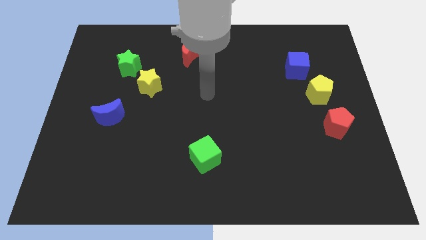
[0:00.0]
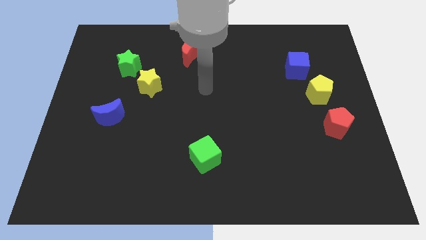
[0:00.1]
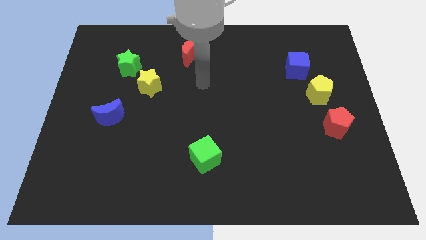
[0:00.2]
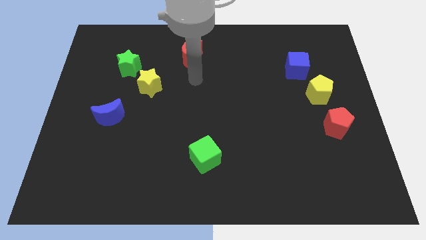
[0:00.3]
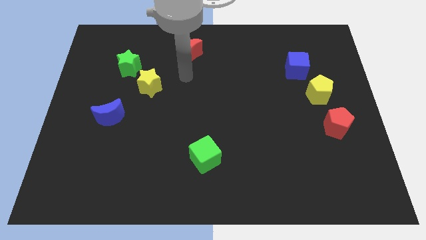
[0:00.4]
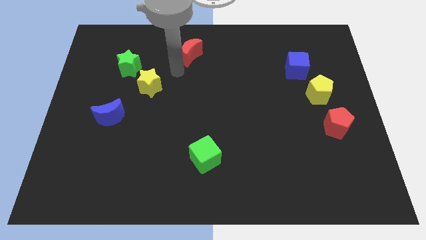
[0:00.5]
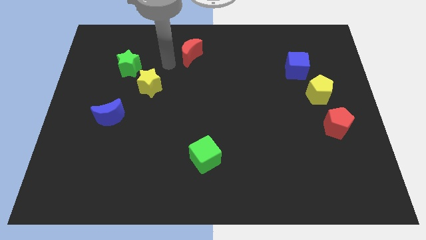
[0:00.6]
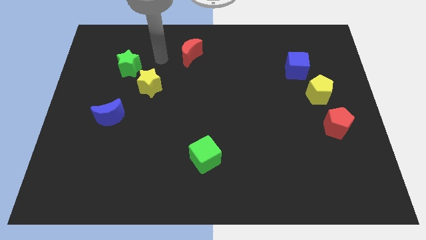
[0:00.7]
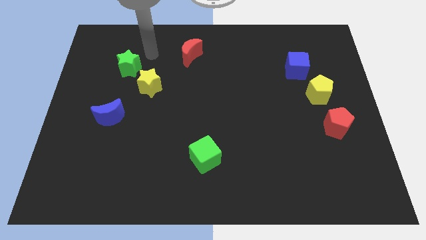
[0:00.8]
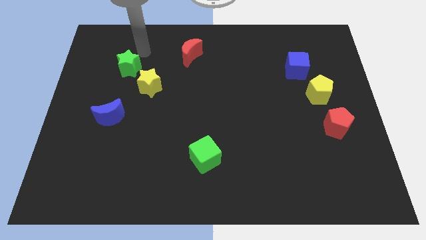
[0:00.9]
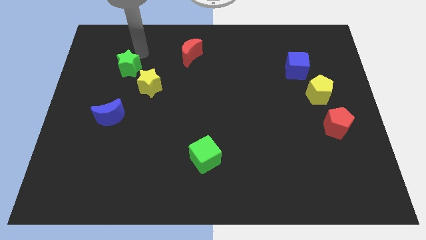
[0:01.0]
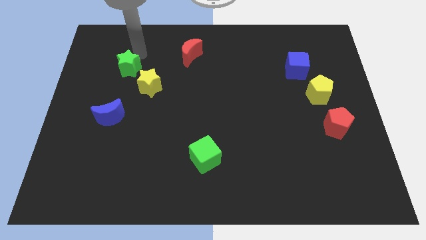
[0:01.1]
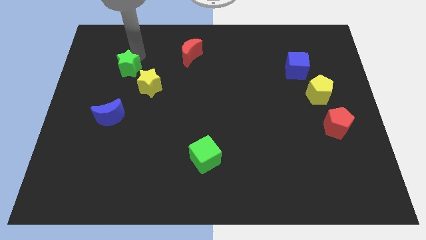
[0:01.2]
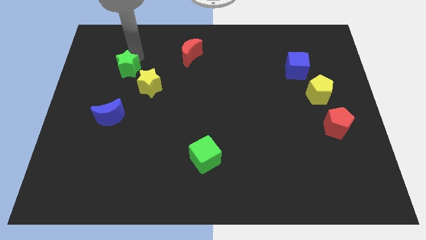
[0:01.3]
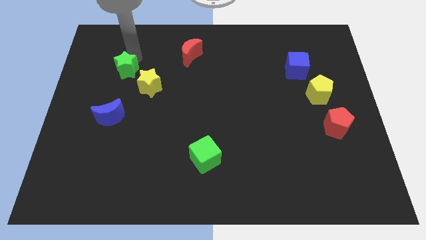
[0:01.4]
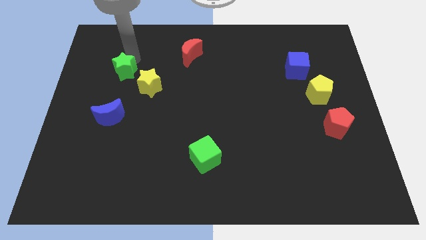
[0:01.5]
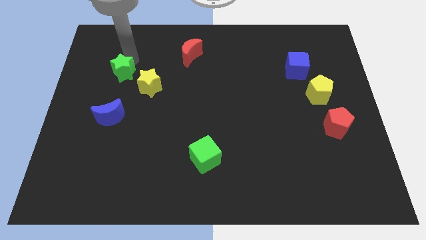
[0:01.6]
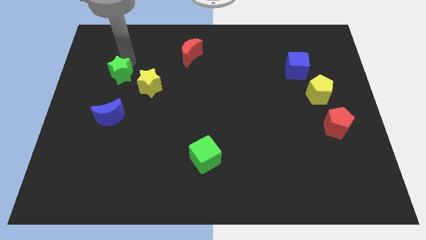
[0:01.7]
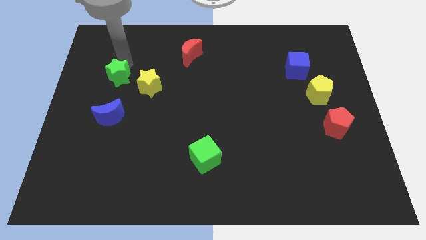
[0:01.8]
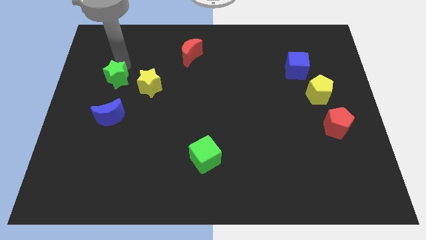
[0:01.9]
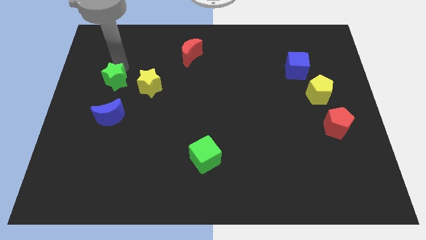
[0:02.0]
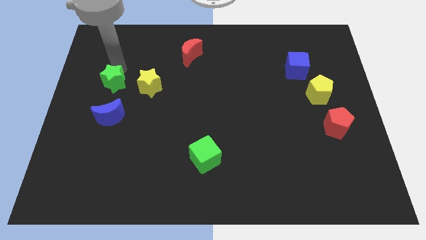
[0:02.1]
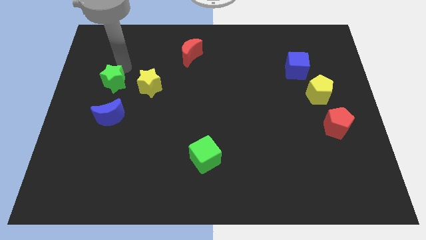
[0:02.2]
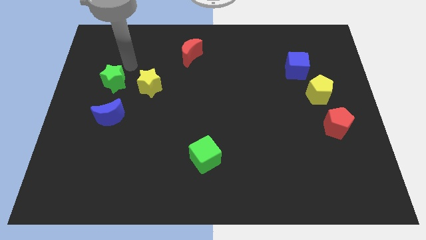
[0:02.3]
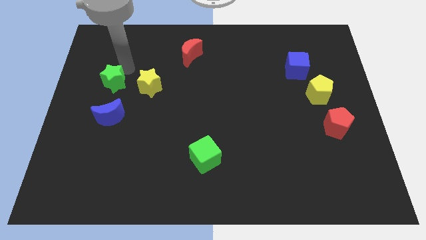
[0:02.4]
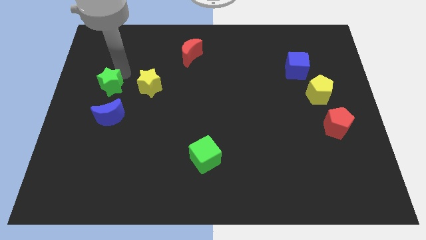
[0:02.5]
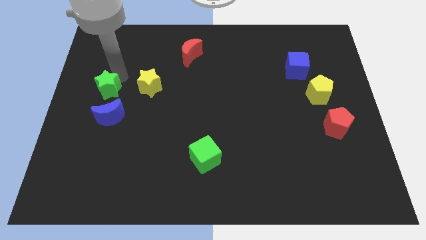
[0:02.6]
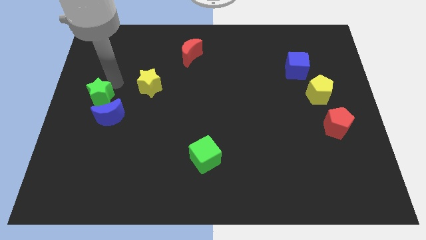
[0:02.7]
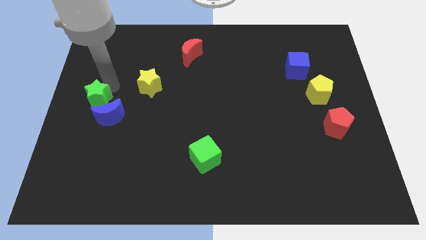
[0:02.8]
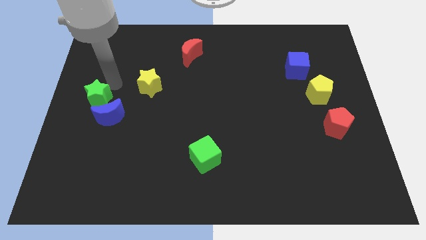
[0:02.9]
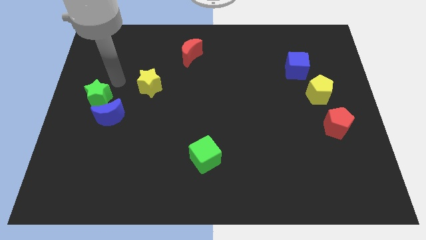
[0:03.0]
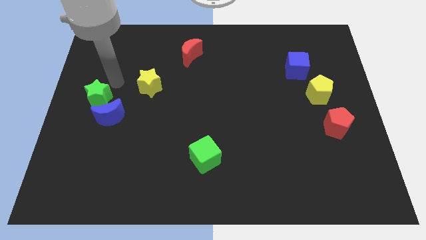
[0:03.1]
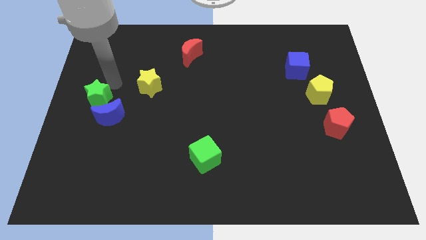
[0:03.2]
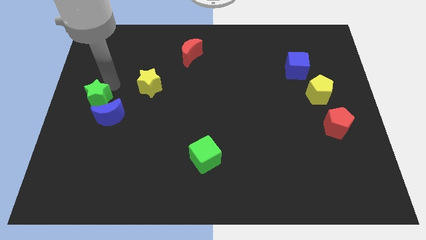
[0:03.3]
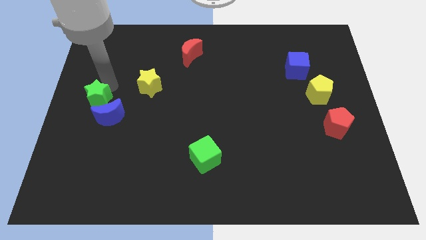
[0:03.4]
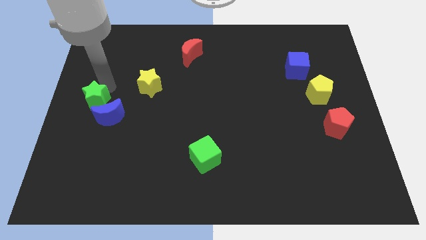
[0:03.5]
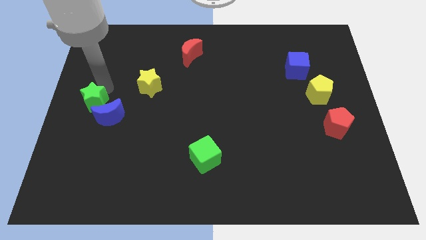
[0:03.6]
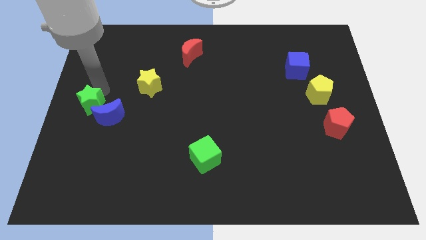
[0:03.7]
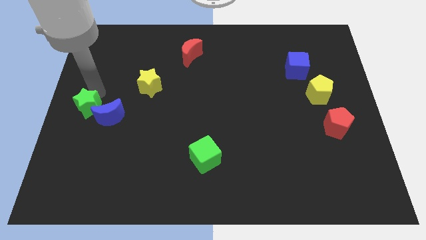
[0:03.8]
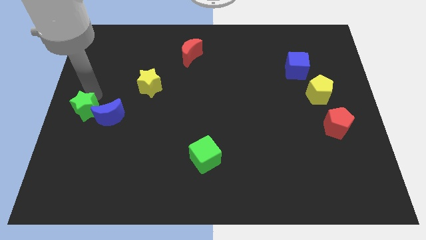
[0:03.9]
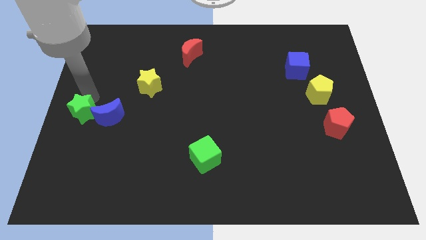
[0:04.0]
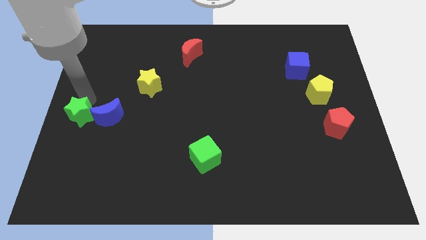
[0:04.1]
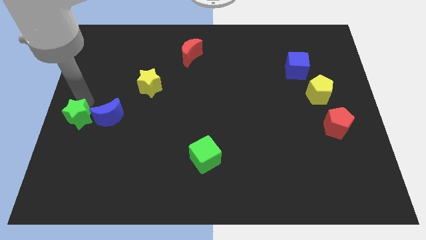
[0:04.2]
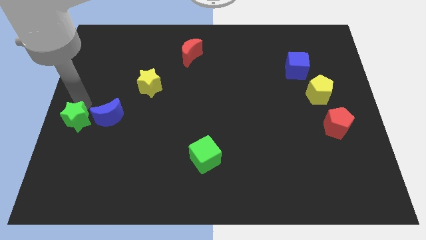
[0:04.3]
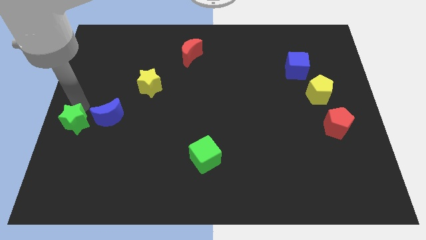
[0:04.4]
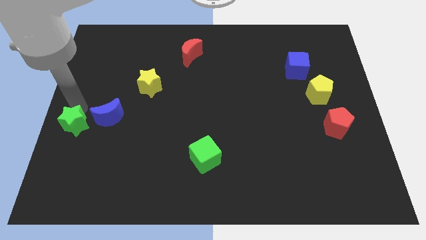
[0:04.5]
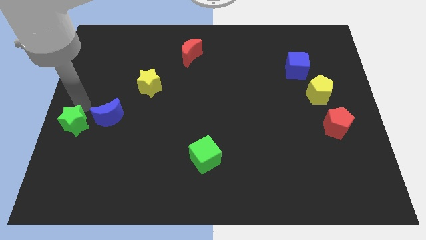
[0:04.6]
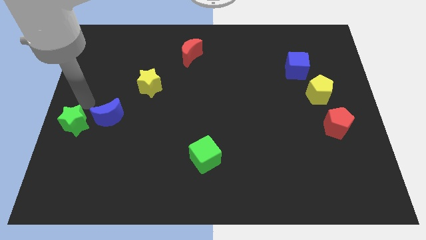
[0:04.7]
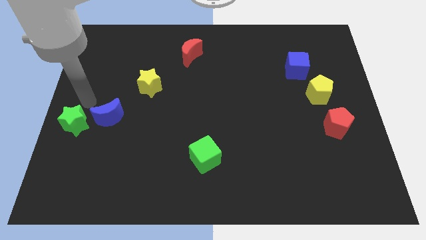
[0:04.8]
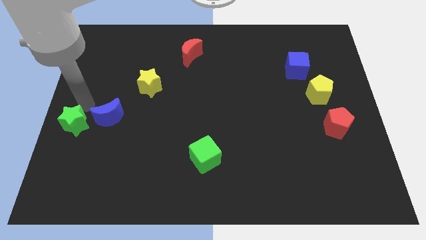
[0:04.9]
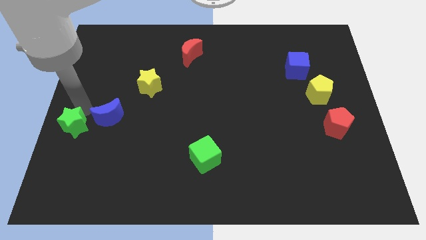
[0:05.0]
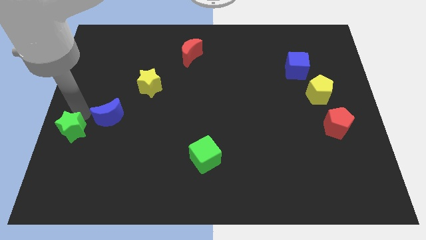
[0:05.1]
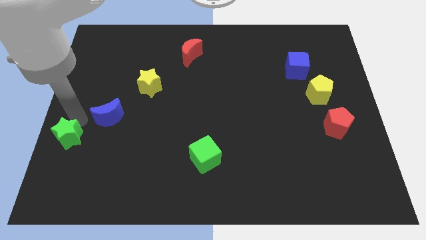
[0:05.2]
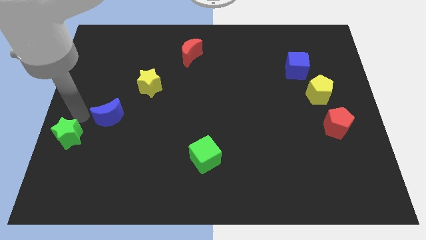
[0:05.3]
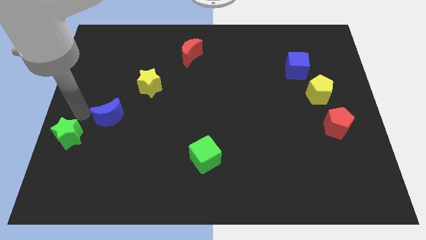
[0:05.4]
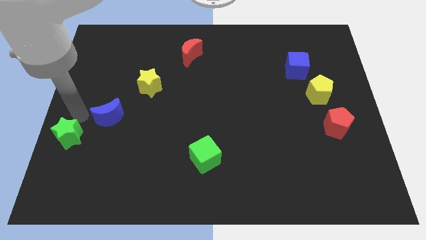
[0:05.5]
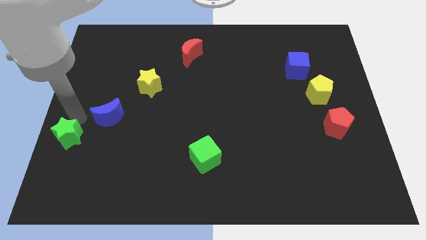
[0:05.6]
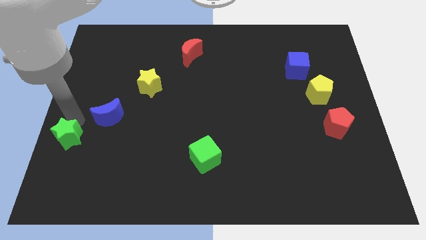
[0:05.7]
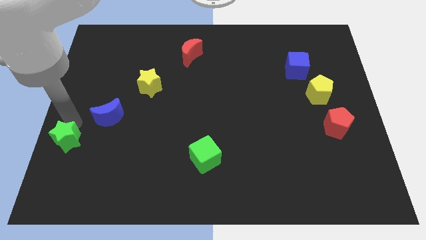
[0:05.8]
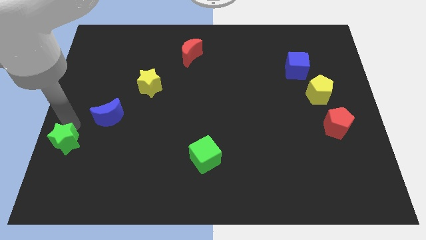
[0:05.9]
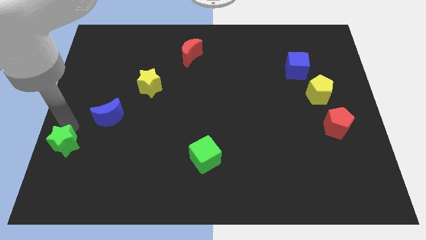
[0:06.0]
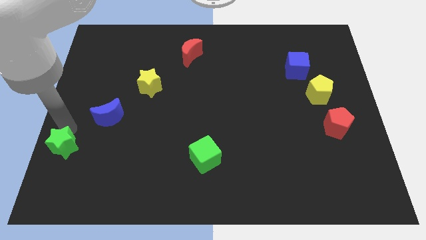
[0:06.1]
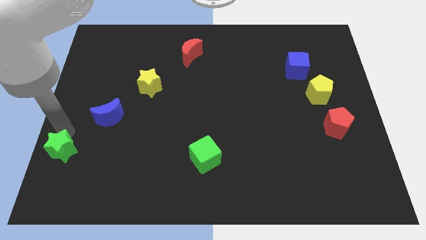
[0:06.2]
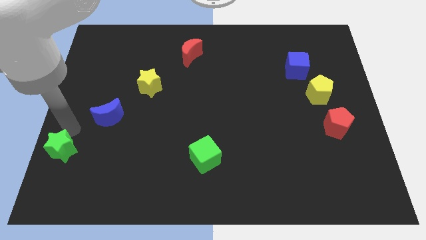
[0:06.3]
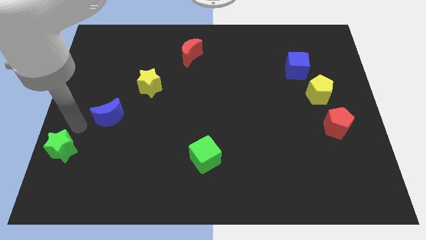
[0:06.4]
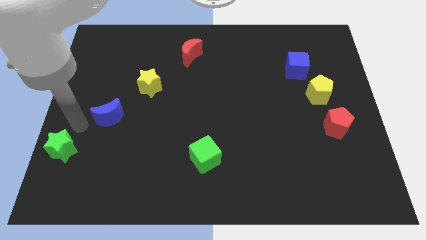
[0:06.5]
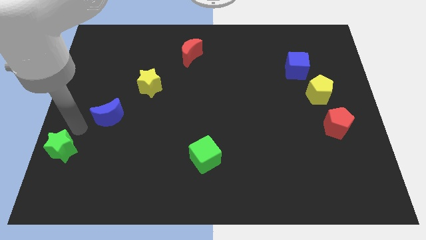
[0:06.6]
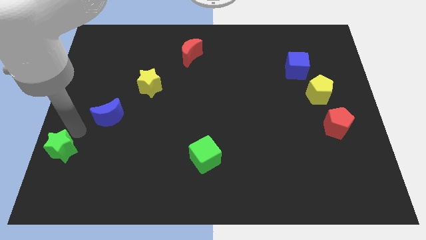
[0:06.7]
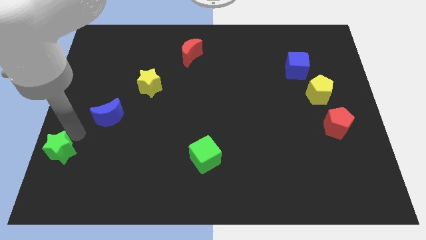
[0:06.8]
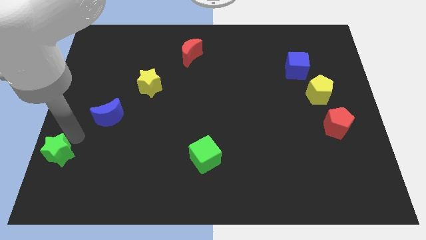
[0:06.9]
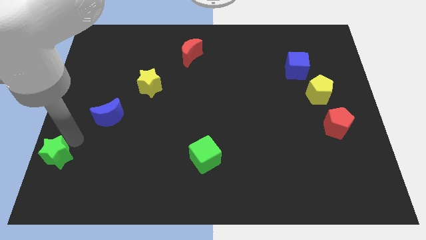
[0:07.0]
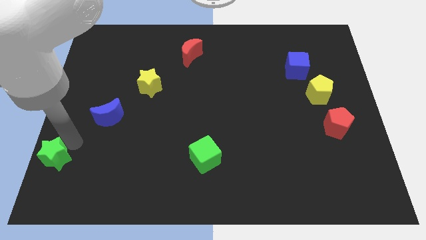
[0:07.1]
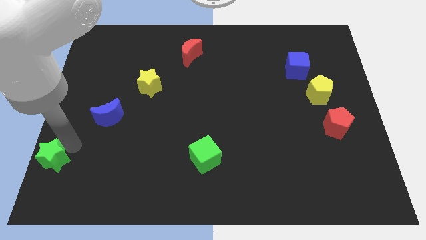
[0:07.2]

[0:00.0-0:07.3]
move the green star to the bottom left
